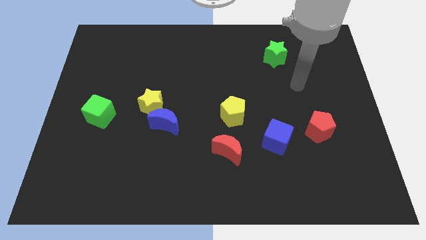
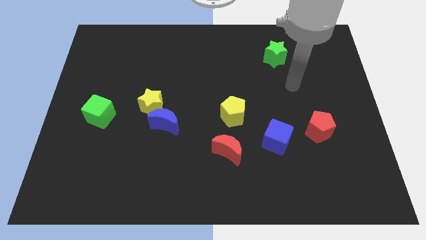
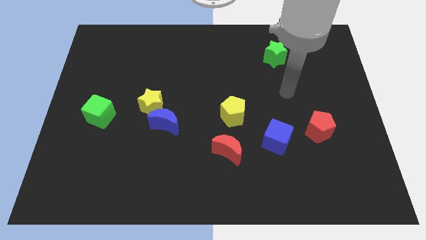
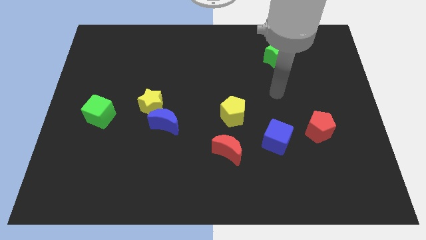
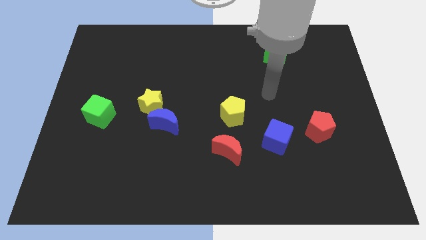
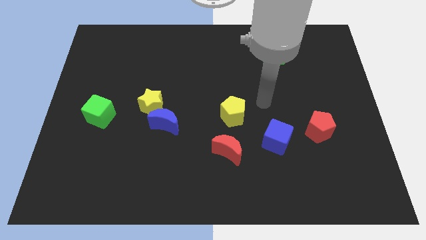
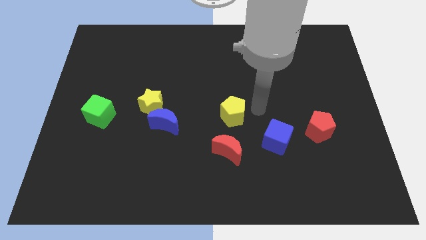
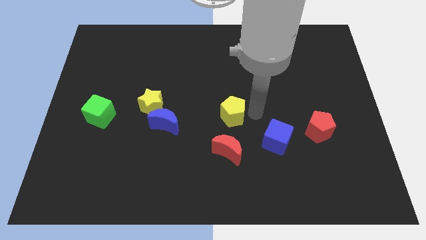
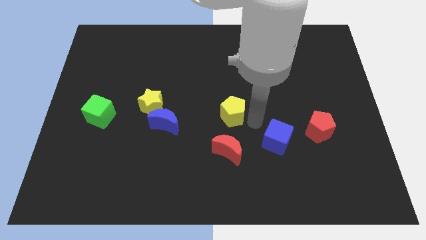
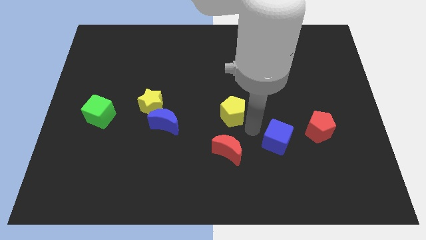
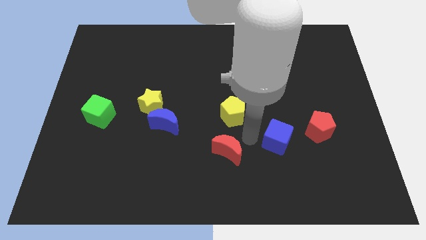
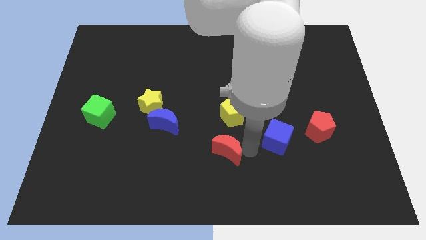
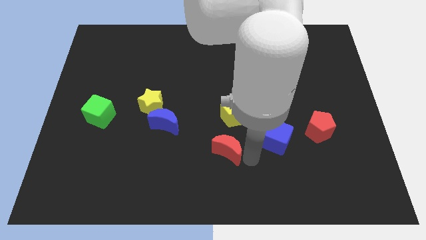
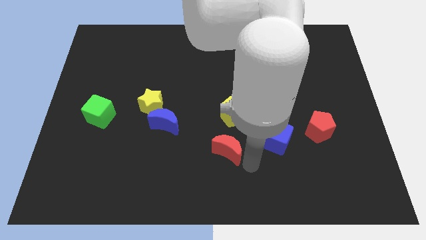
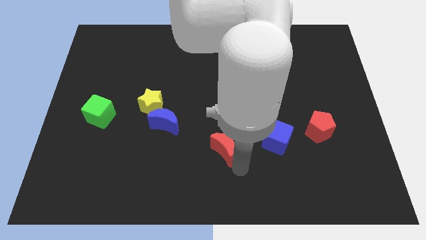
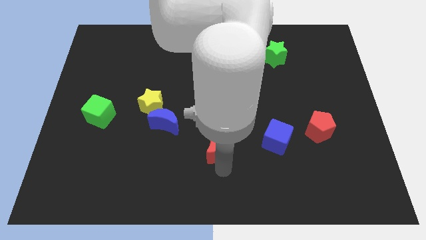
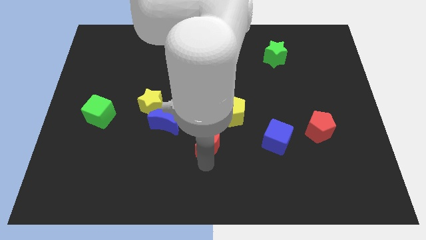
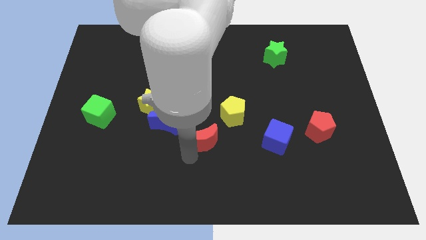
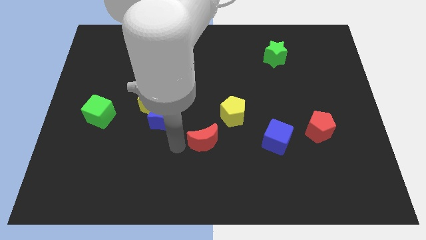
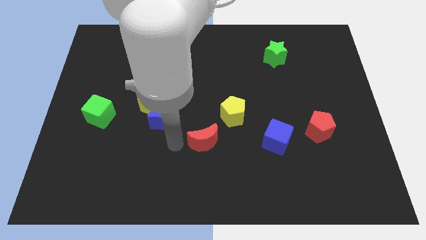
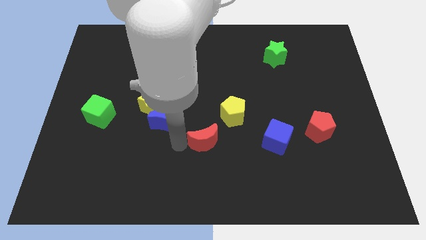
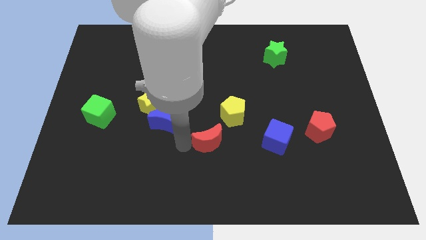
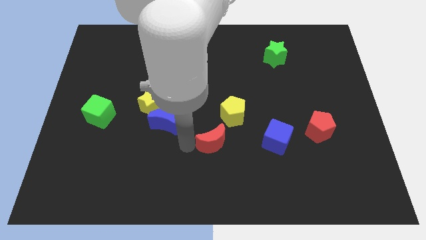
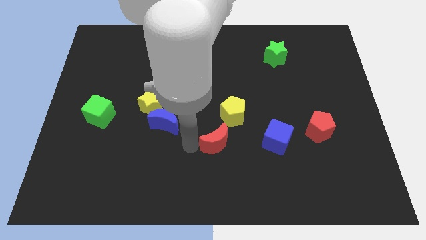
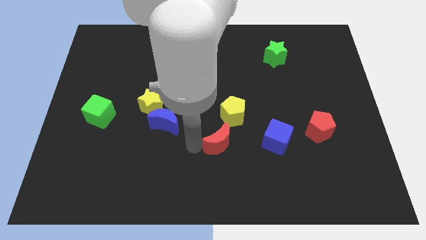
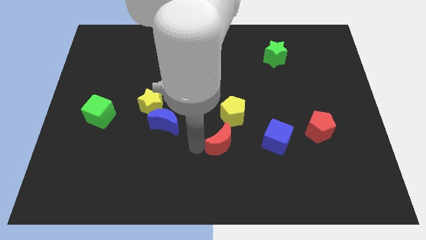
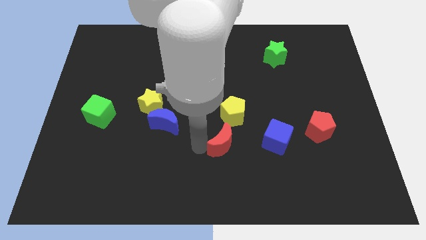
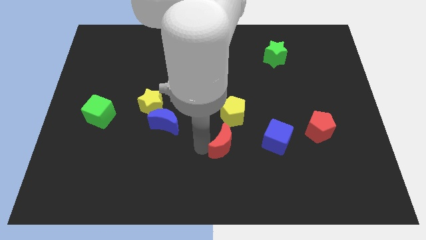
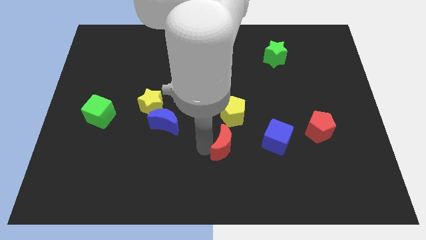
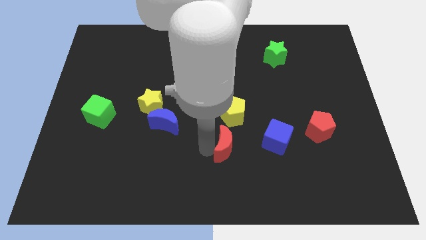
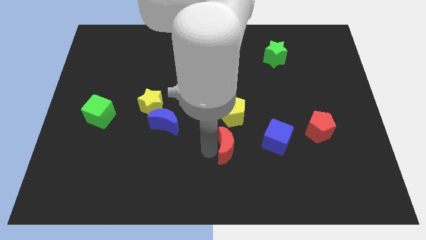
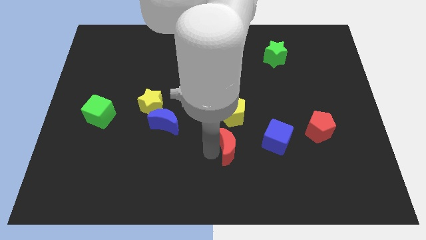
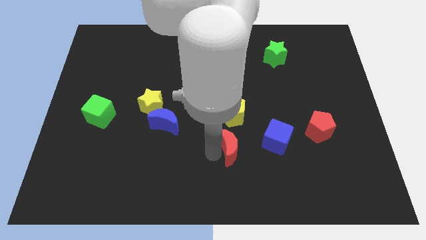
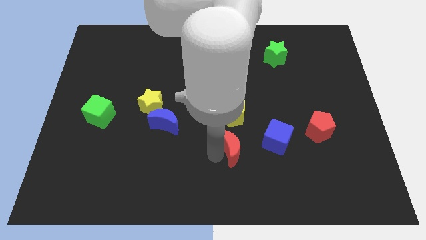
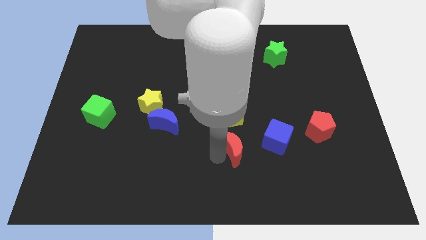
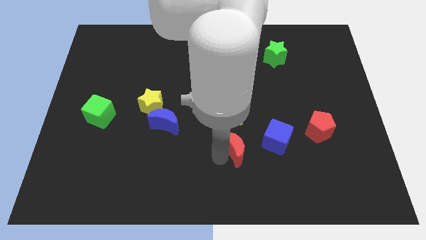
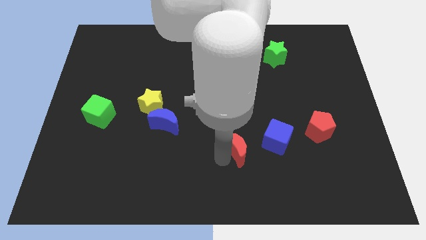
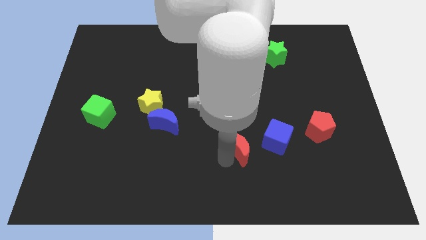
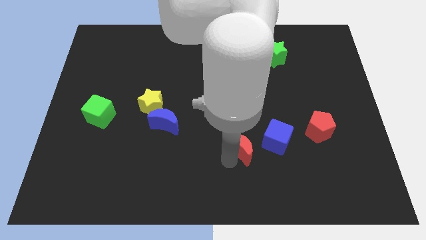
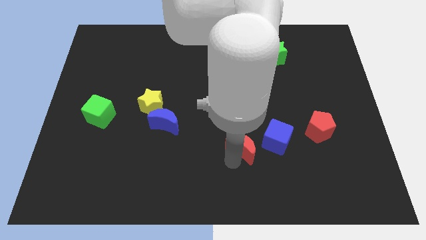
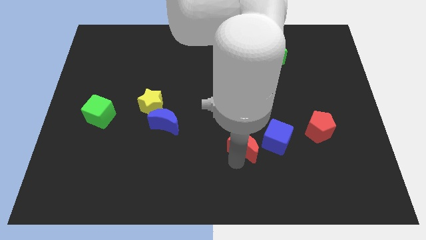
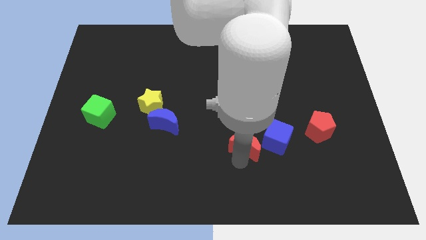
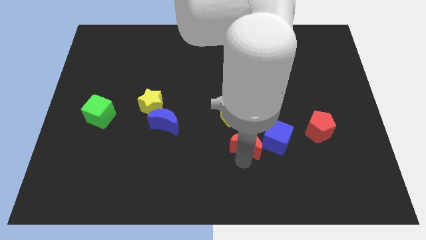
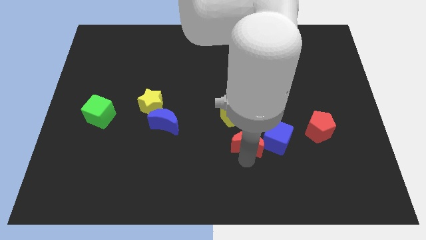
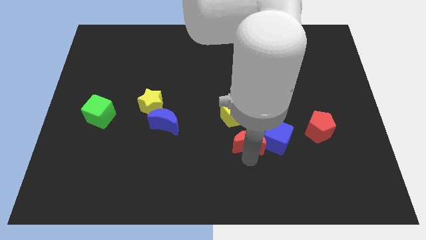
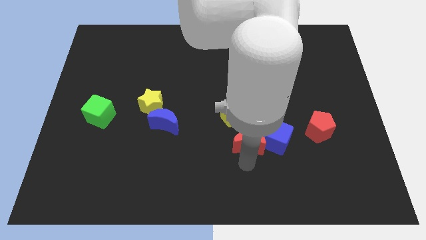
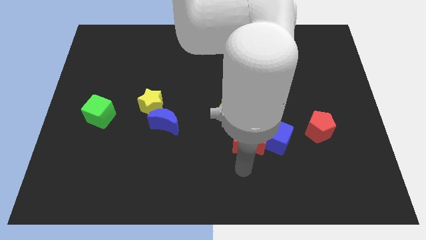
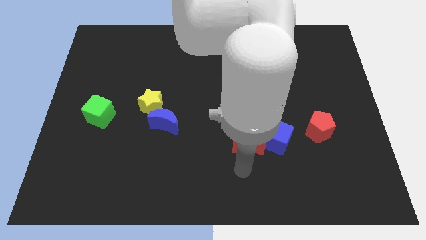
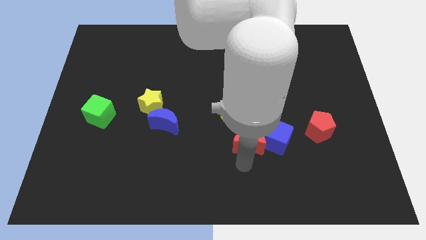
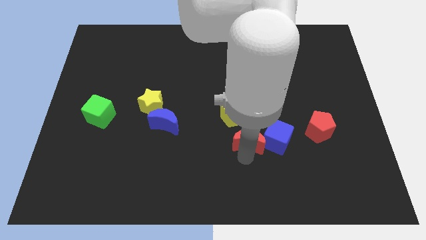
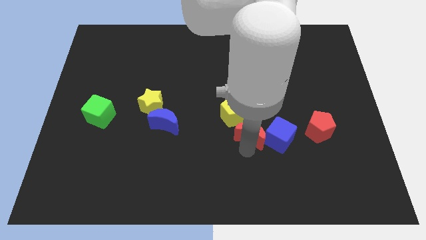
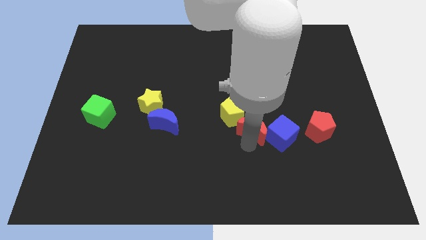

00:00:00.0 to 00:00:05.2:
push the red moon diagonally up and to the right a bit

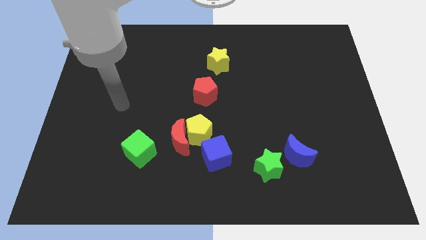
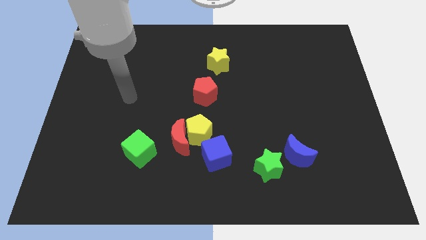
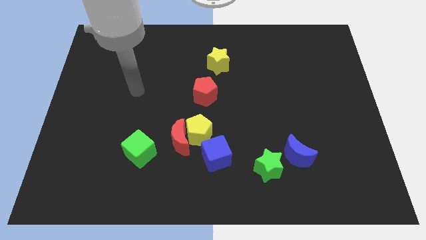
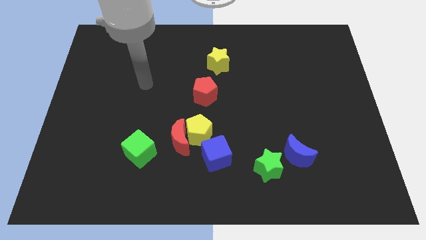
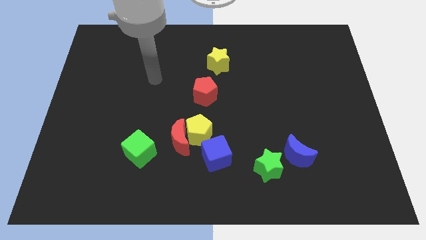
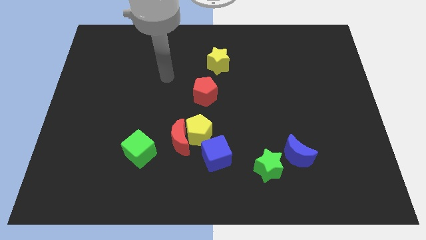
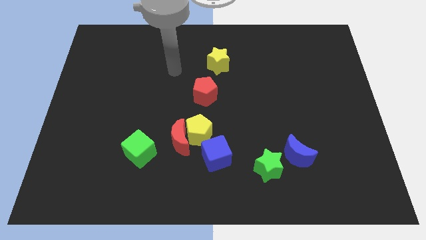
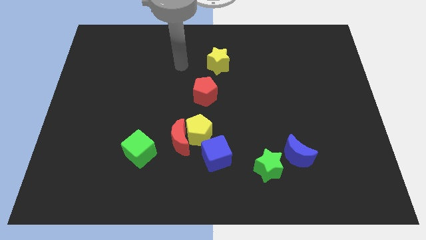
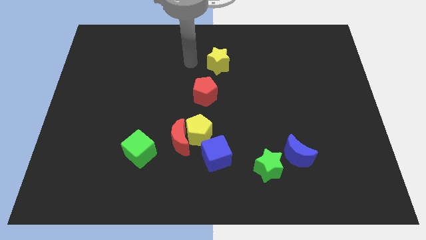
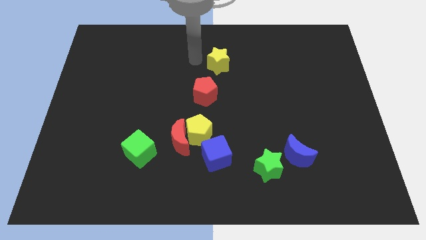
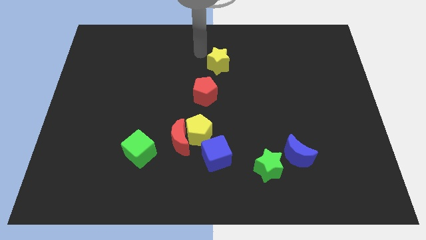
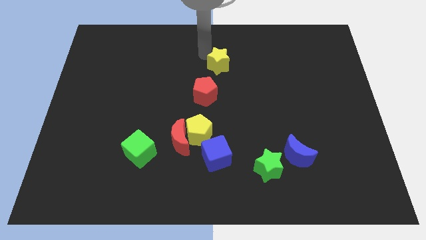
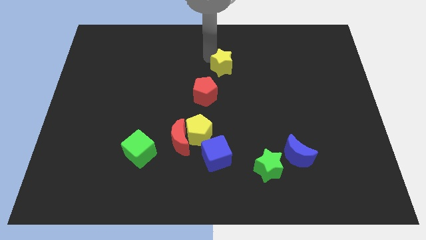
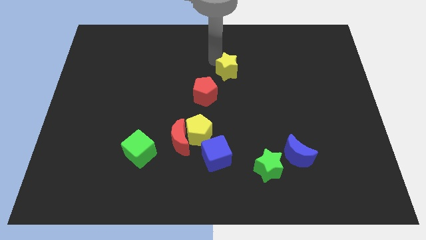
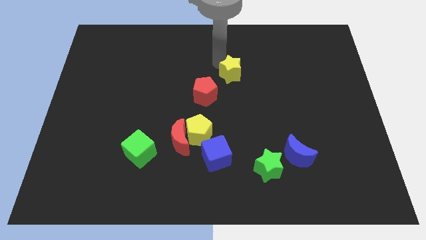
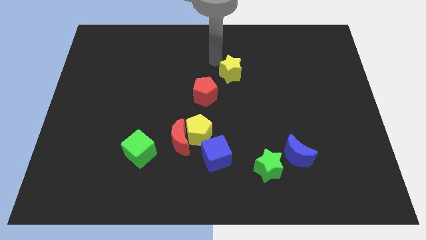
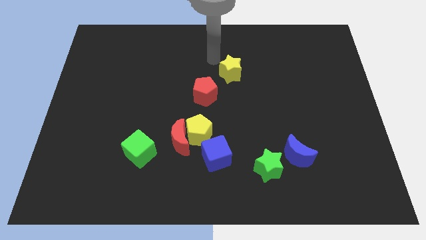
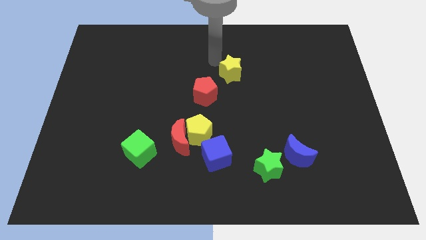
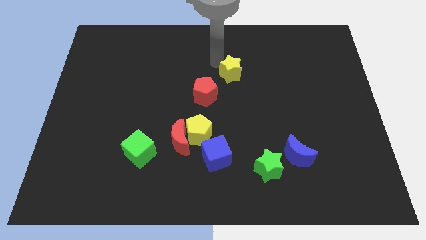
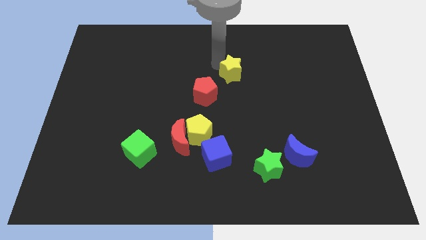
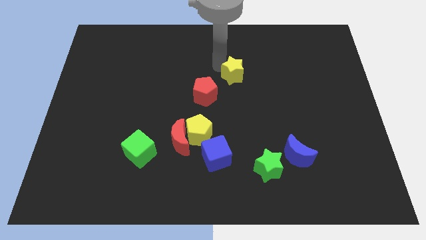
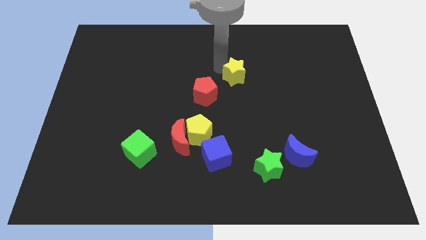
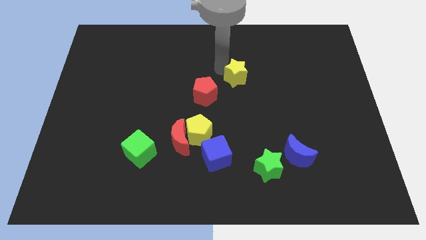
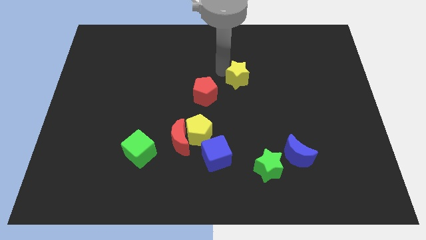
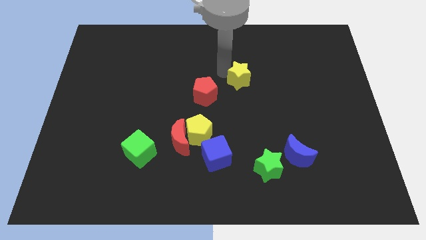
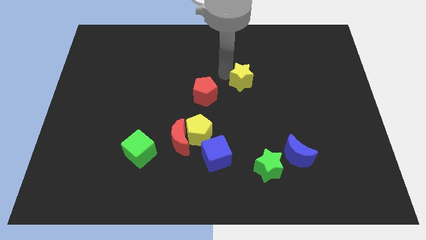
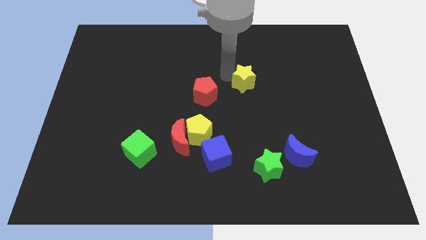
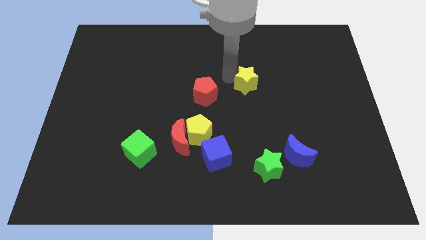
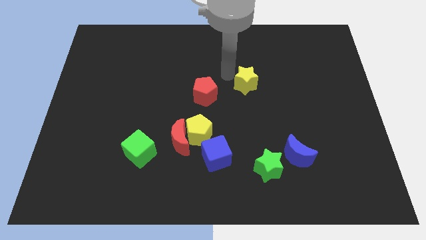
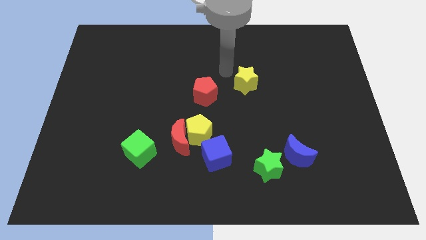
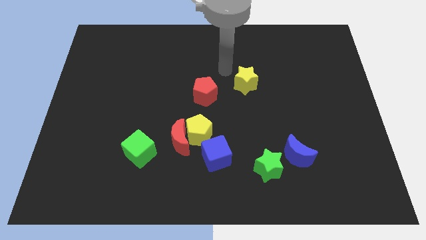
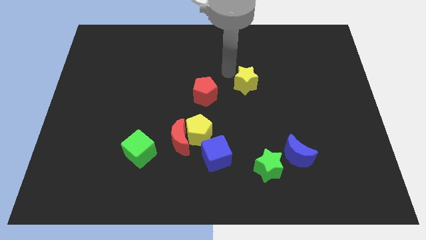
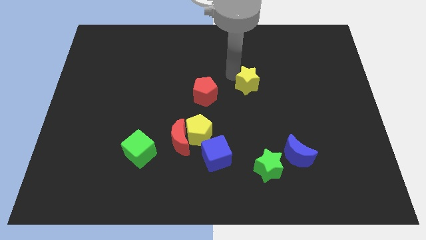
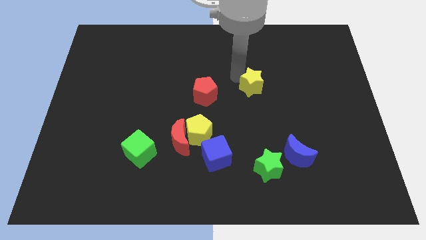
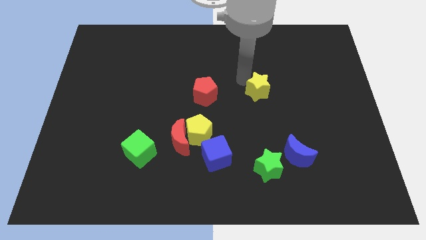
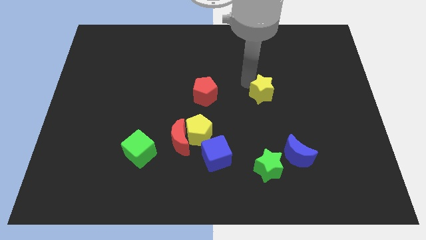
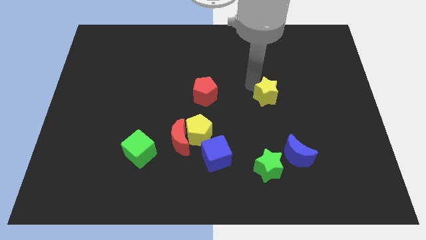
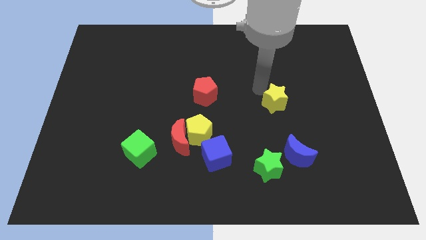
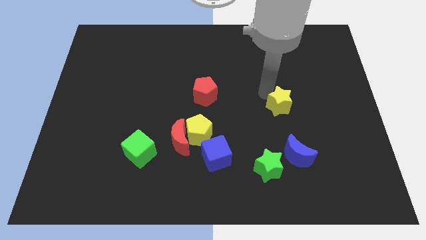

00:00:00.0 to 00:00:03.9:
slide the yellow star diagonally downwards and right
